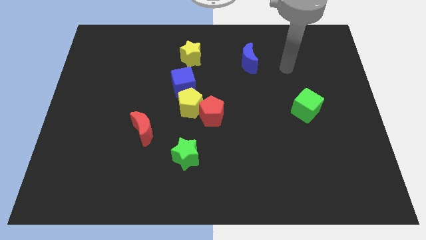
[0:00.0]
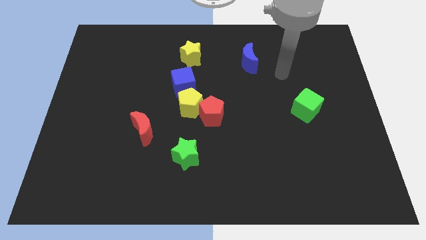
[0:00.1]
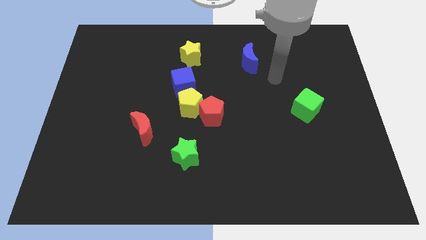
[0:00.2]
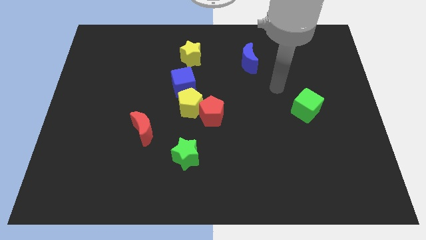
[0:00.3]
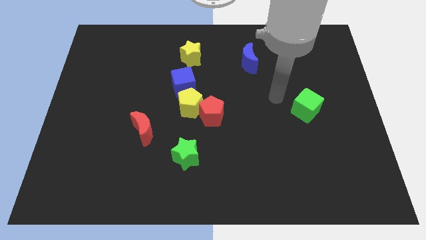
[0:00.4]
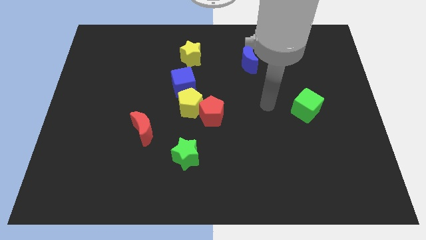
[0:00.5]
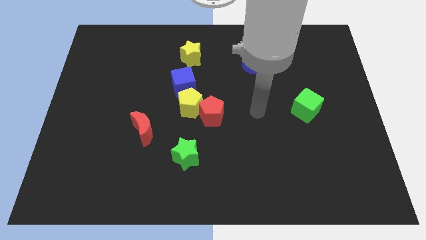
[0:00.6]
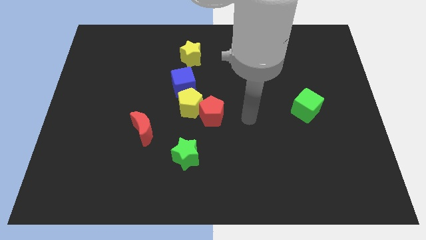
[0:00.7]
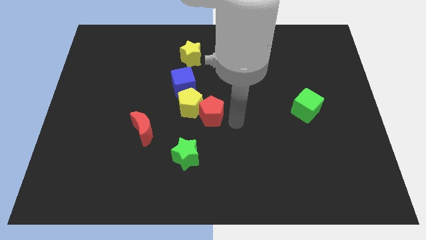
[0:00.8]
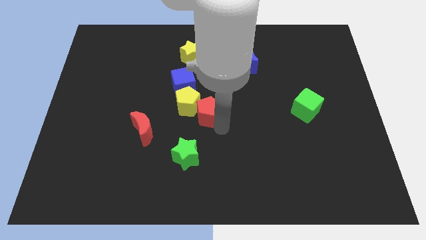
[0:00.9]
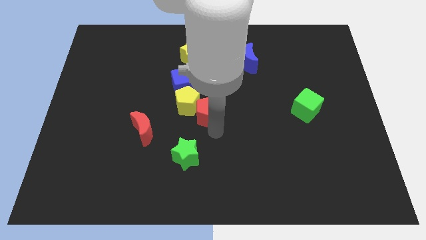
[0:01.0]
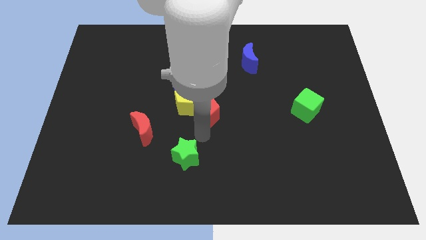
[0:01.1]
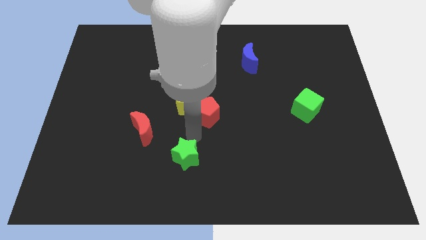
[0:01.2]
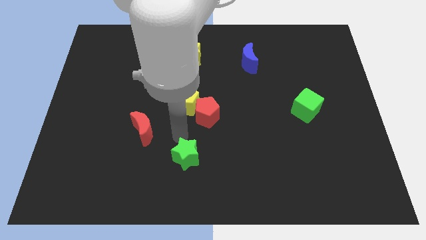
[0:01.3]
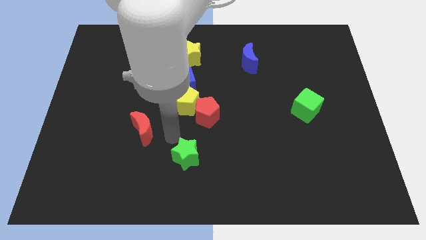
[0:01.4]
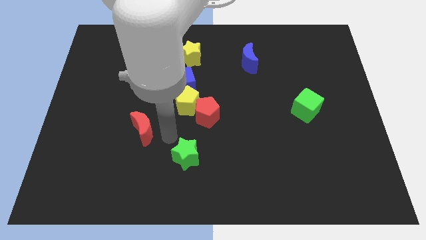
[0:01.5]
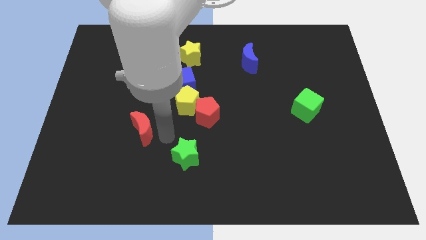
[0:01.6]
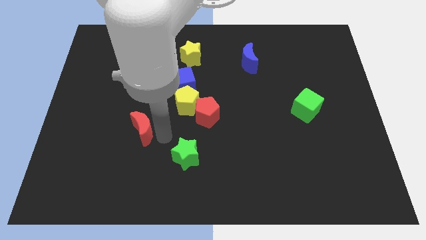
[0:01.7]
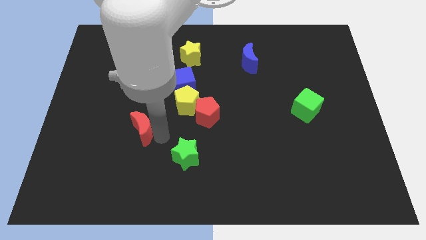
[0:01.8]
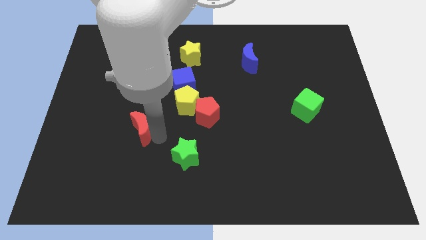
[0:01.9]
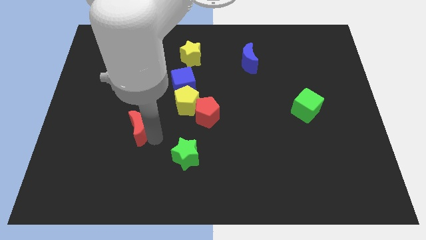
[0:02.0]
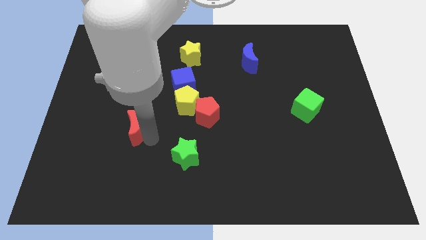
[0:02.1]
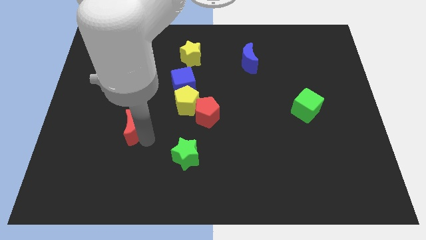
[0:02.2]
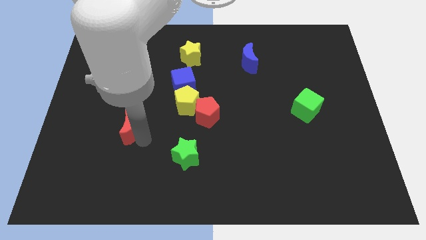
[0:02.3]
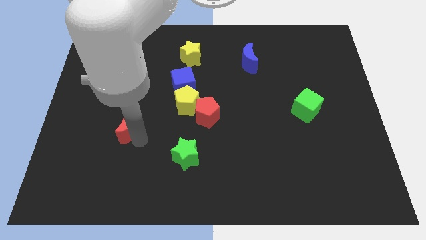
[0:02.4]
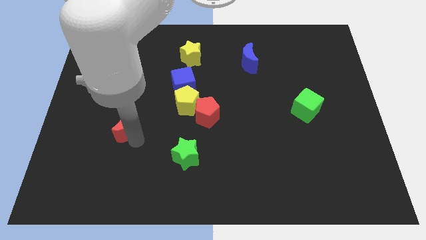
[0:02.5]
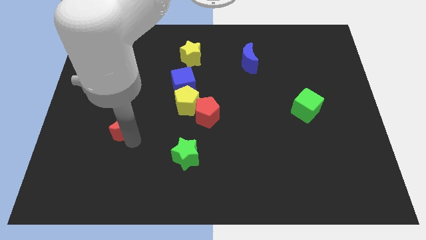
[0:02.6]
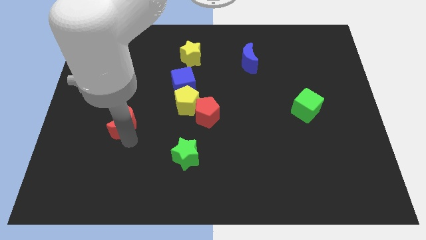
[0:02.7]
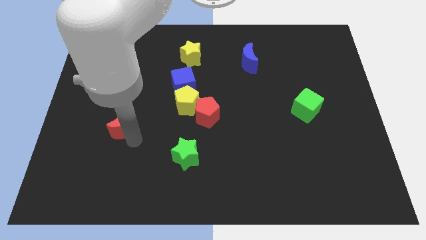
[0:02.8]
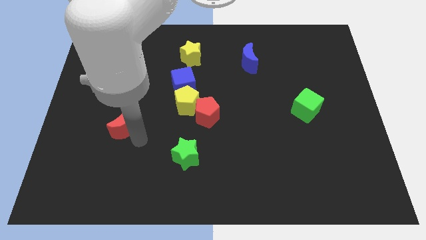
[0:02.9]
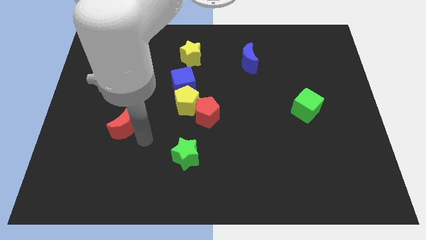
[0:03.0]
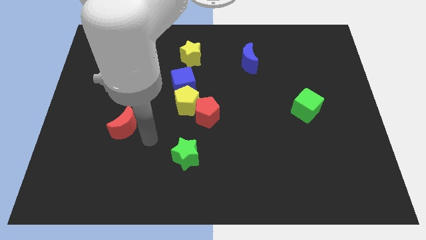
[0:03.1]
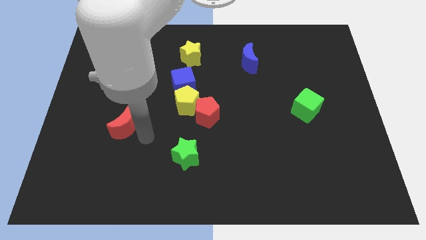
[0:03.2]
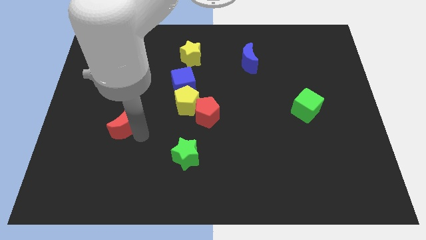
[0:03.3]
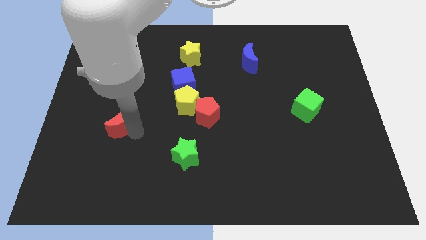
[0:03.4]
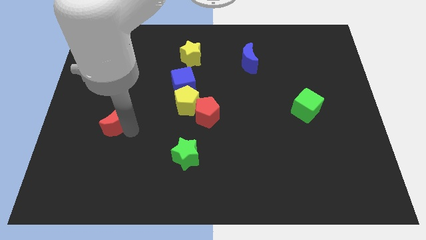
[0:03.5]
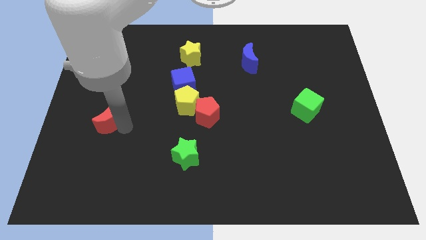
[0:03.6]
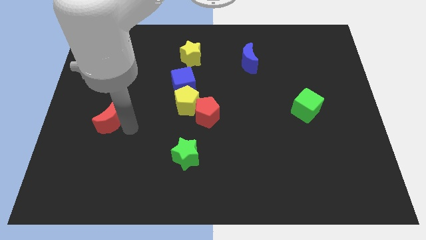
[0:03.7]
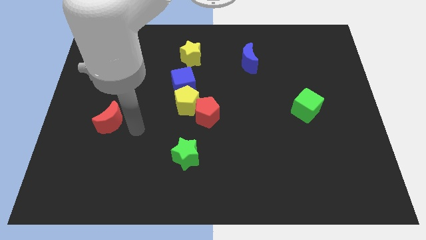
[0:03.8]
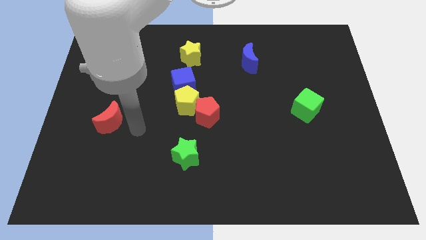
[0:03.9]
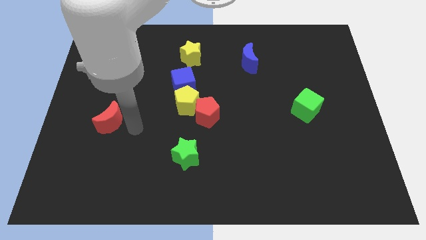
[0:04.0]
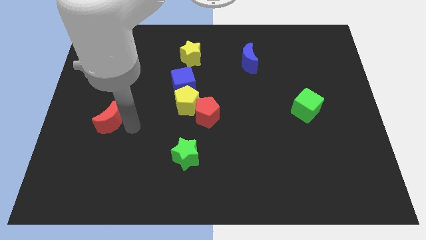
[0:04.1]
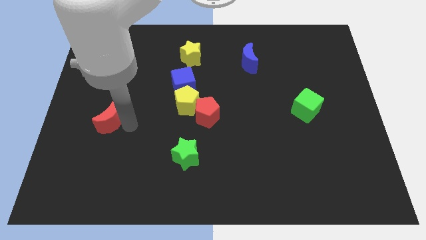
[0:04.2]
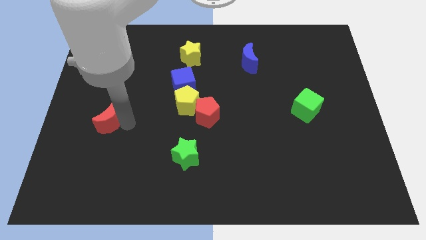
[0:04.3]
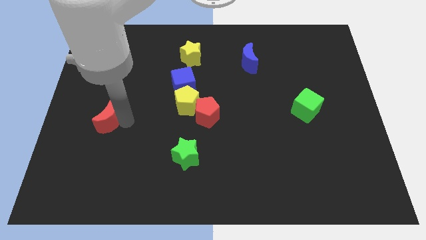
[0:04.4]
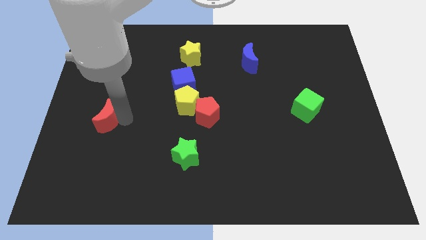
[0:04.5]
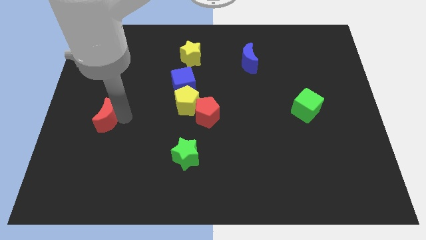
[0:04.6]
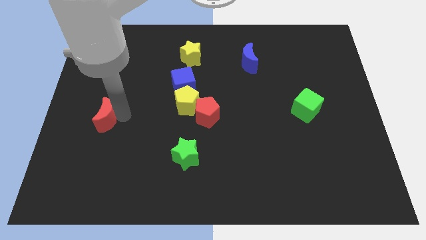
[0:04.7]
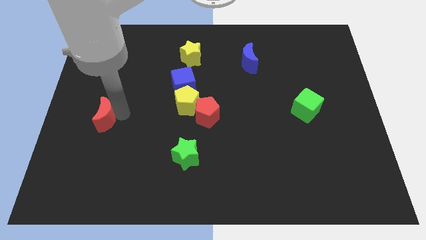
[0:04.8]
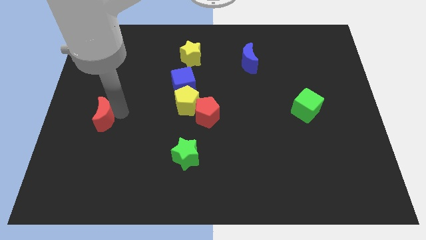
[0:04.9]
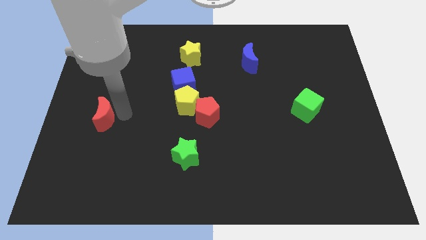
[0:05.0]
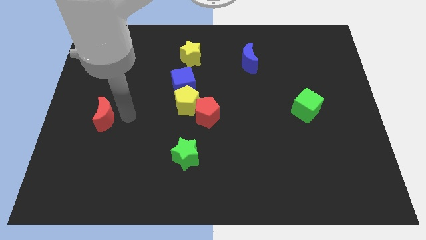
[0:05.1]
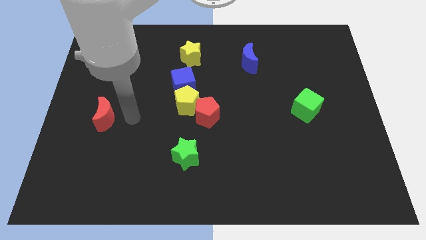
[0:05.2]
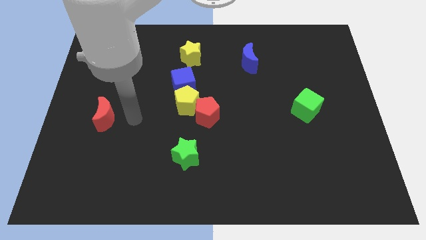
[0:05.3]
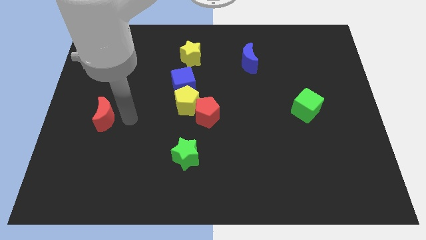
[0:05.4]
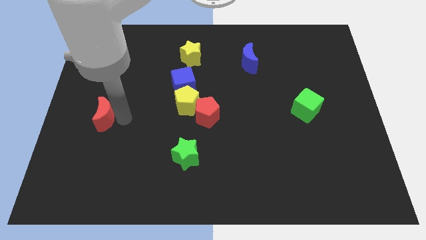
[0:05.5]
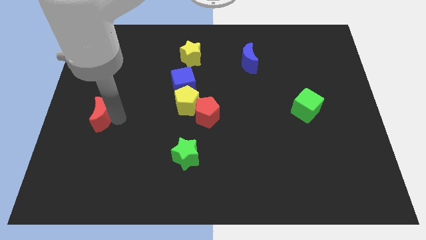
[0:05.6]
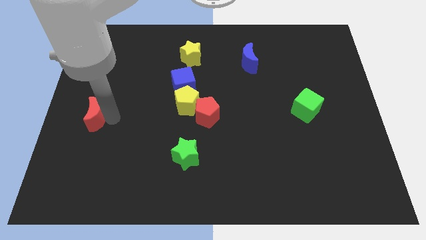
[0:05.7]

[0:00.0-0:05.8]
slide the red moon to the left side

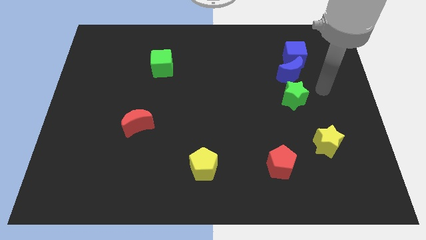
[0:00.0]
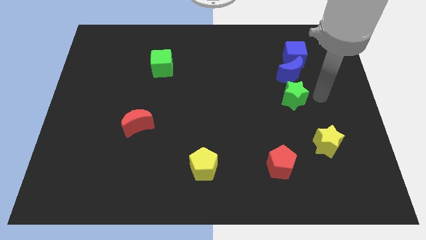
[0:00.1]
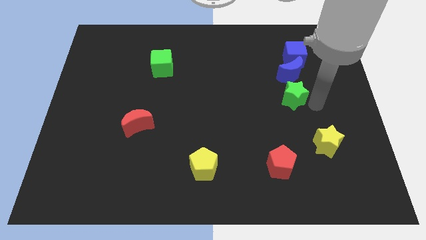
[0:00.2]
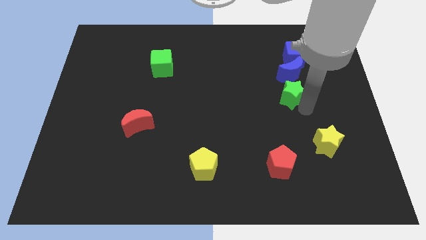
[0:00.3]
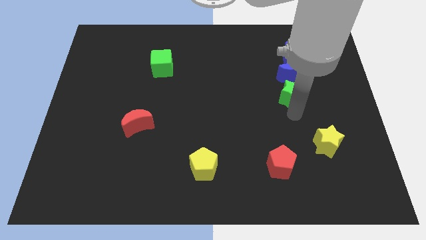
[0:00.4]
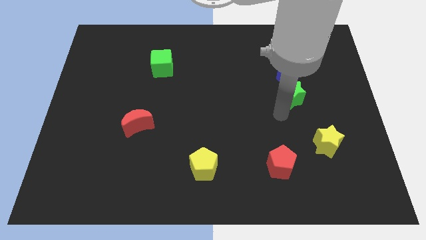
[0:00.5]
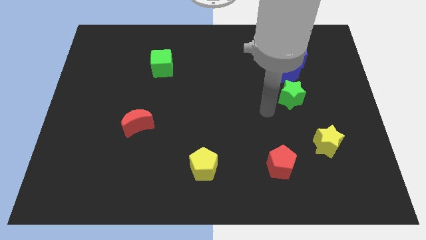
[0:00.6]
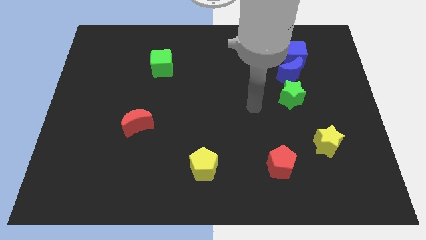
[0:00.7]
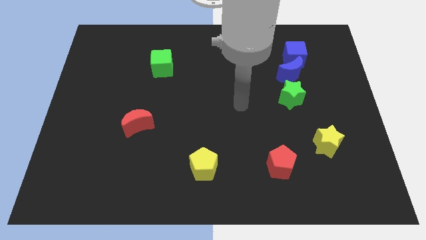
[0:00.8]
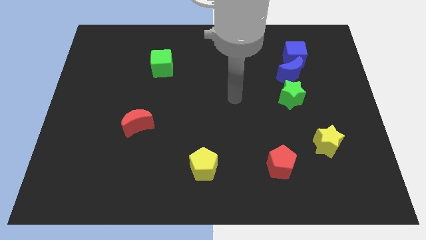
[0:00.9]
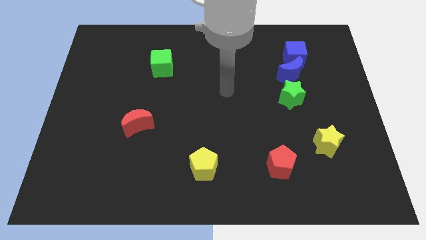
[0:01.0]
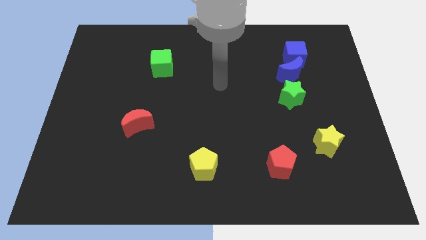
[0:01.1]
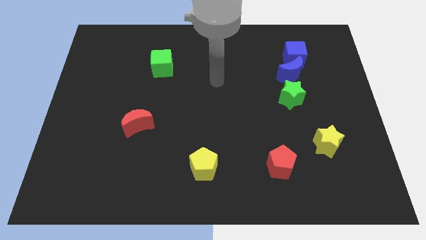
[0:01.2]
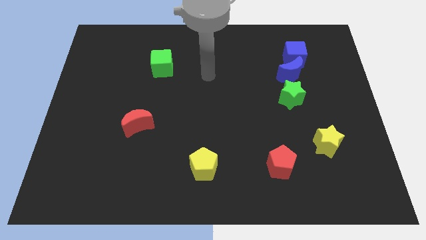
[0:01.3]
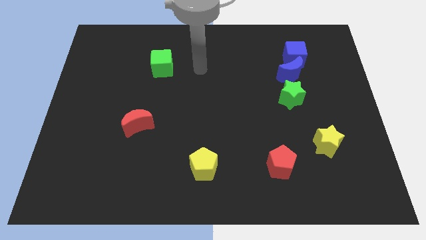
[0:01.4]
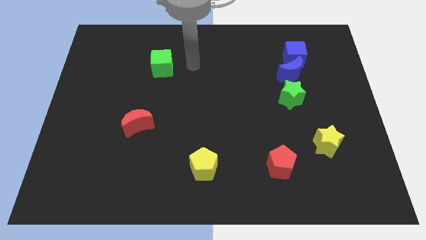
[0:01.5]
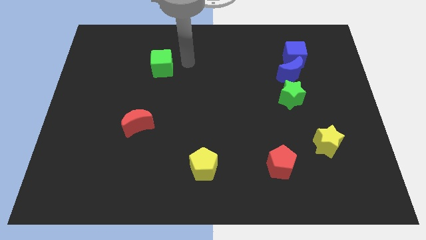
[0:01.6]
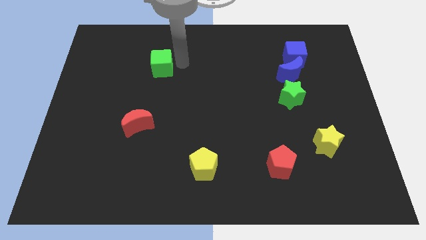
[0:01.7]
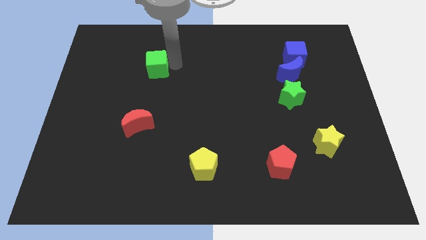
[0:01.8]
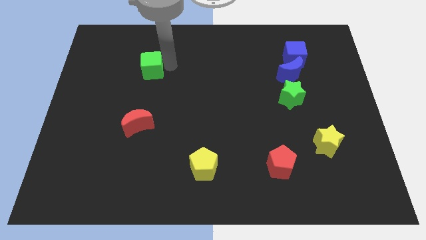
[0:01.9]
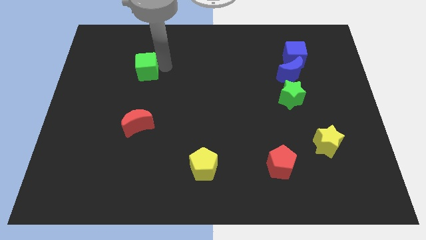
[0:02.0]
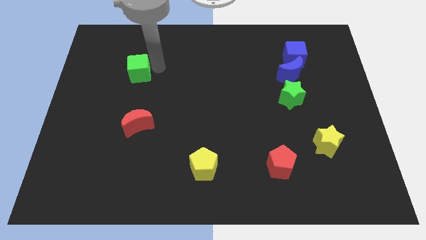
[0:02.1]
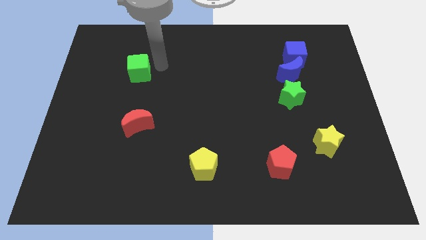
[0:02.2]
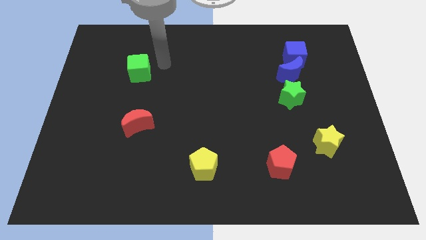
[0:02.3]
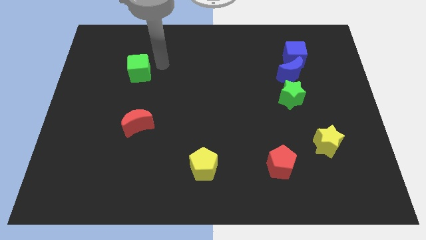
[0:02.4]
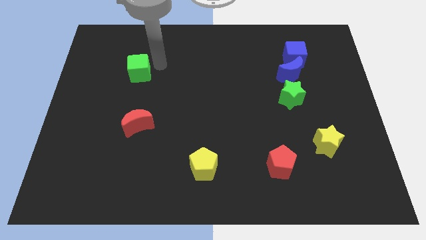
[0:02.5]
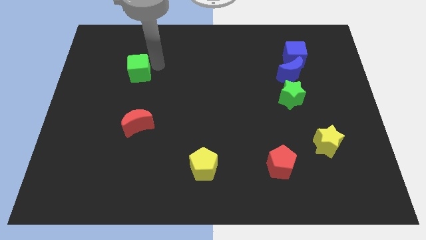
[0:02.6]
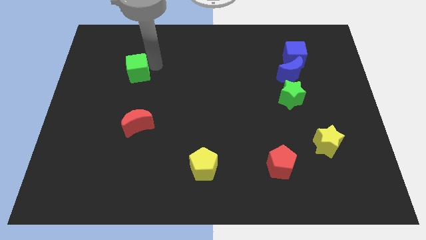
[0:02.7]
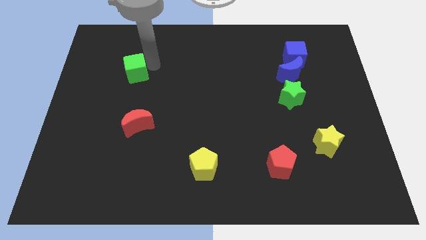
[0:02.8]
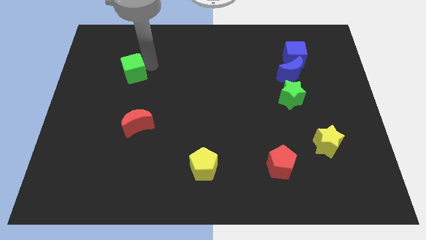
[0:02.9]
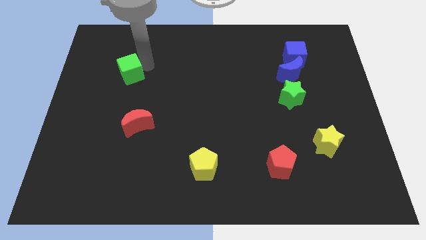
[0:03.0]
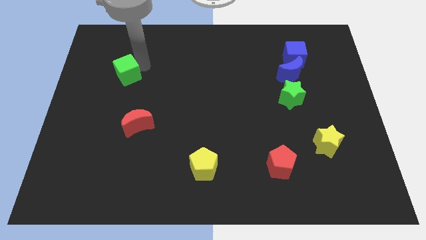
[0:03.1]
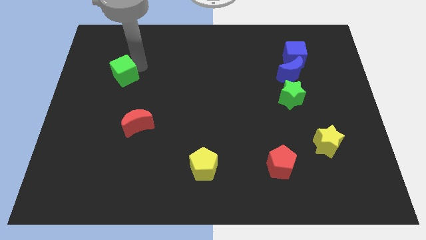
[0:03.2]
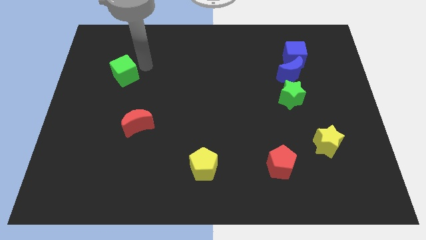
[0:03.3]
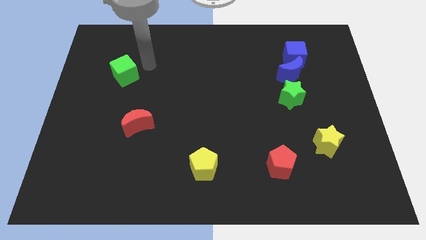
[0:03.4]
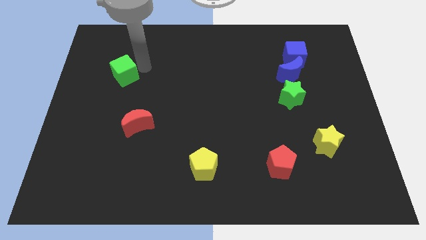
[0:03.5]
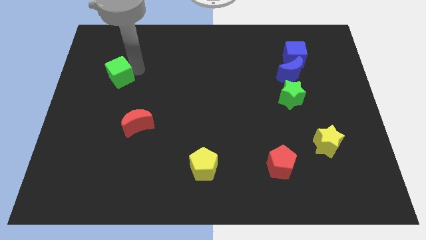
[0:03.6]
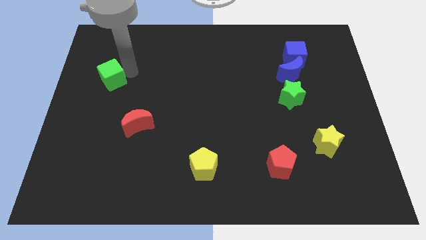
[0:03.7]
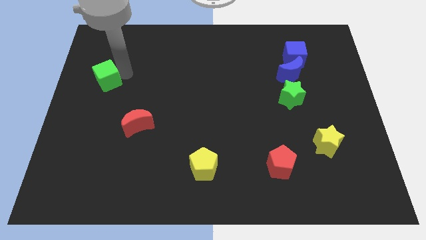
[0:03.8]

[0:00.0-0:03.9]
slide the green cube to the center left
